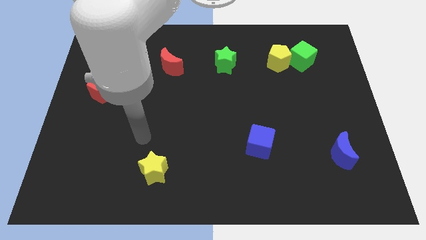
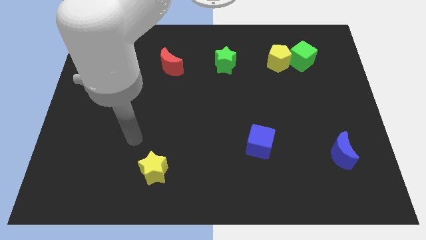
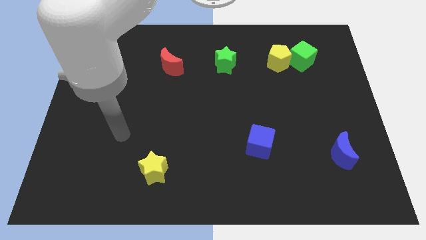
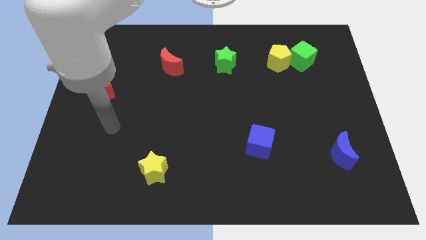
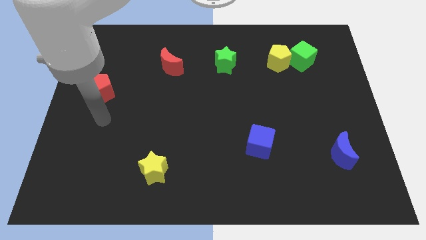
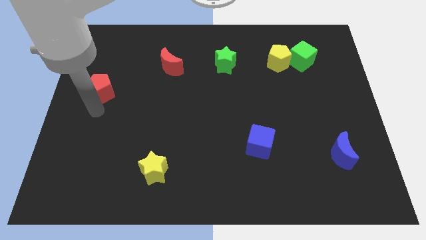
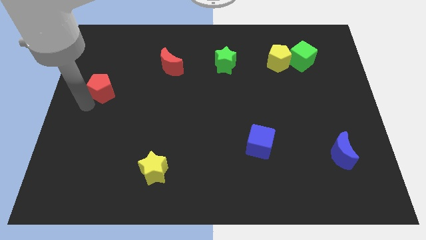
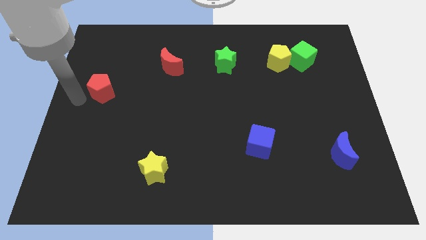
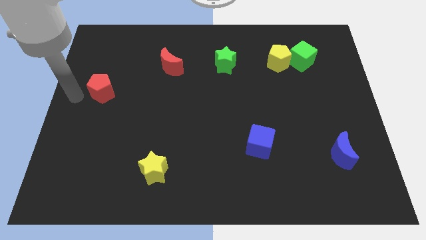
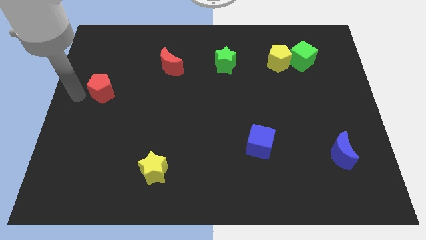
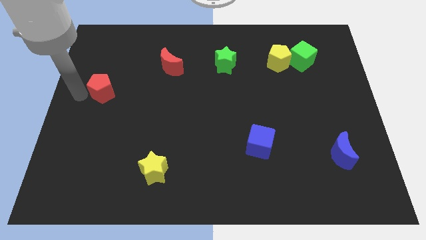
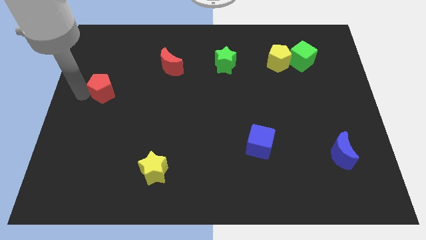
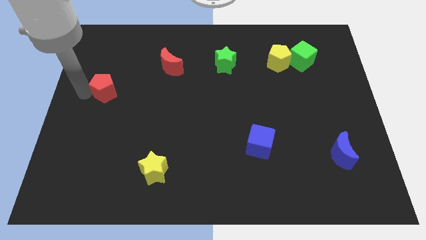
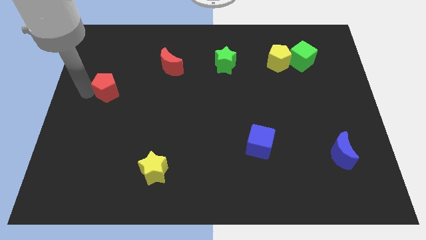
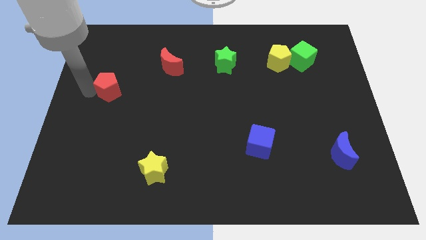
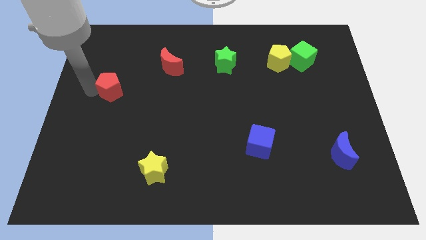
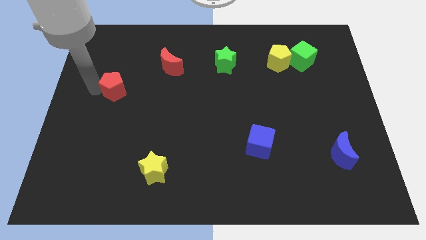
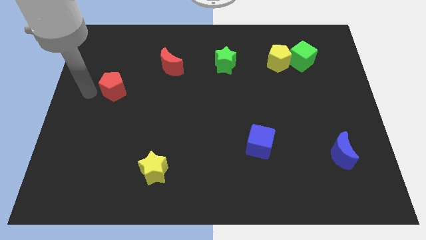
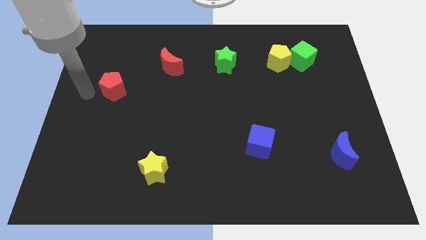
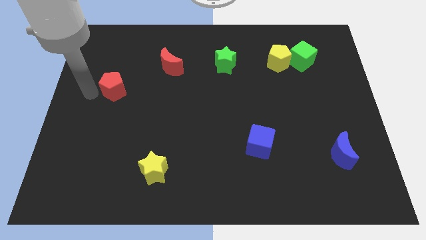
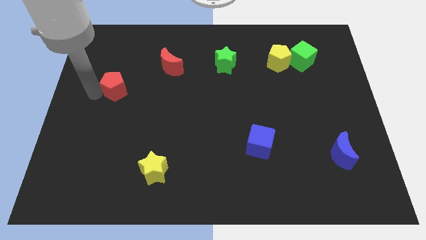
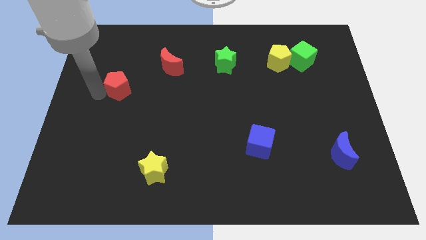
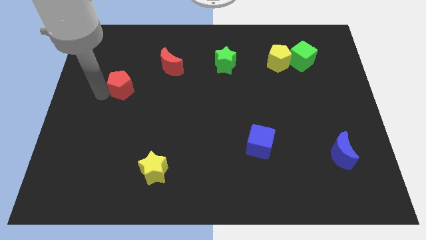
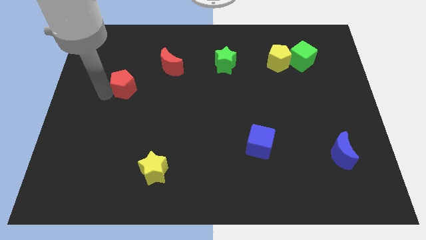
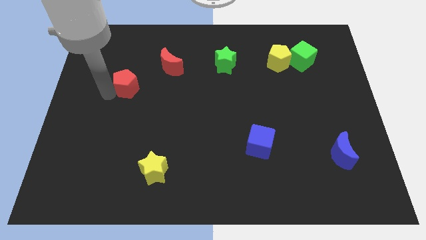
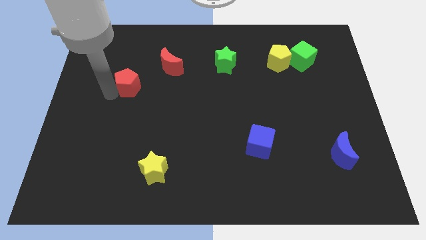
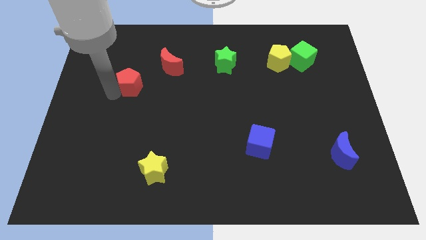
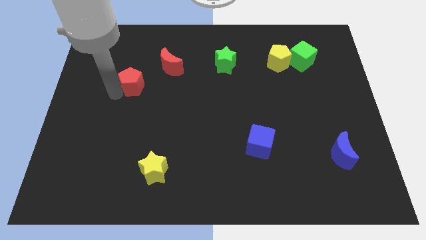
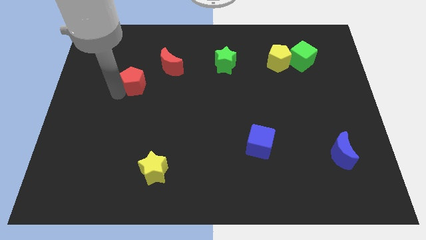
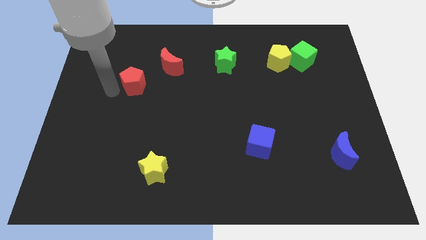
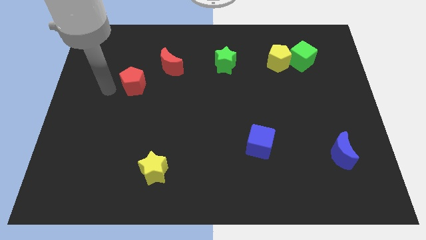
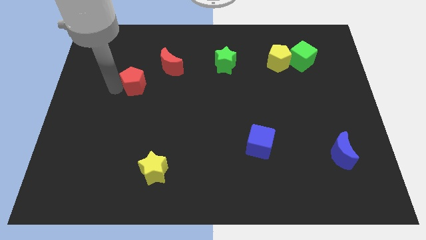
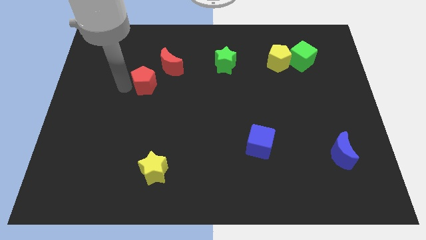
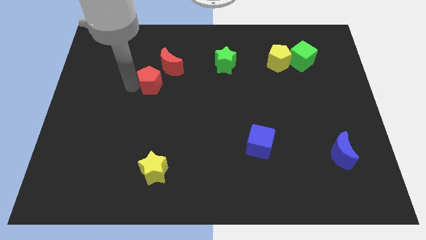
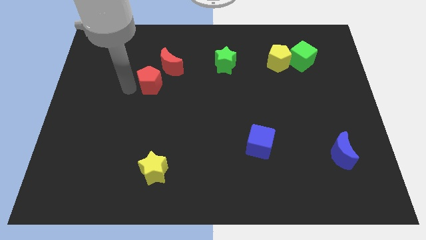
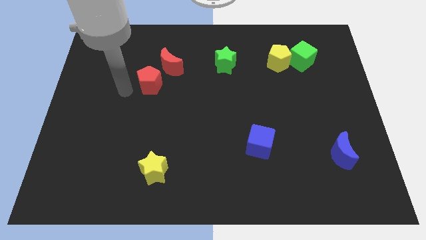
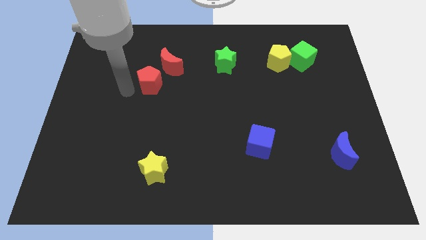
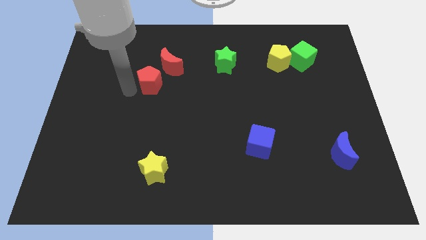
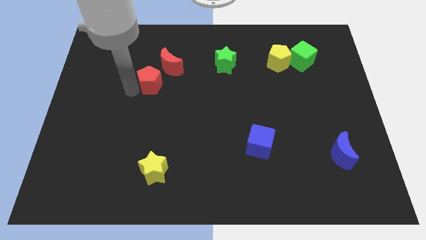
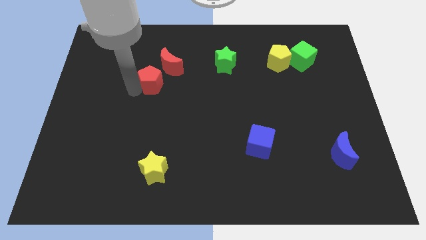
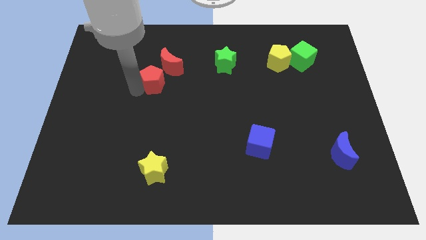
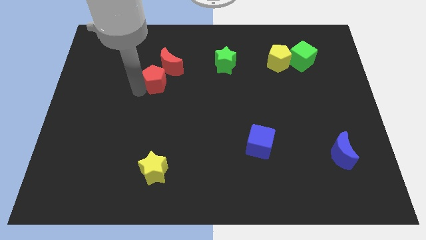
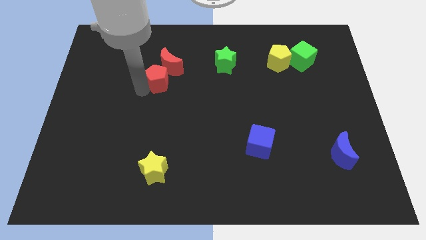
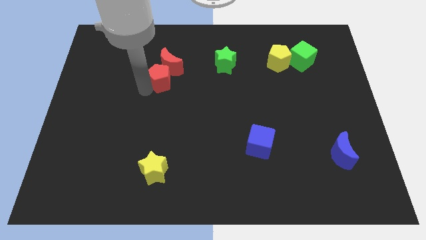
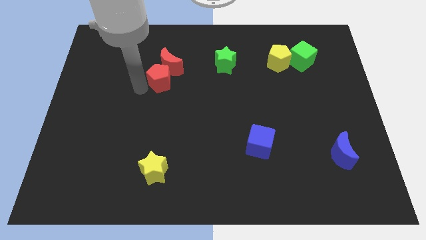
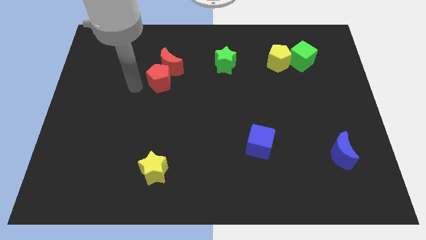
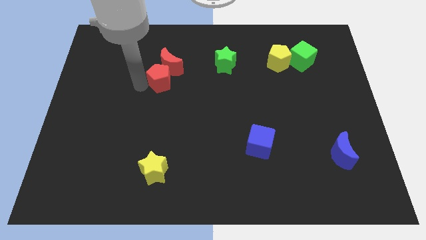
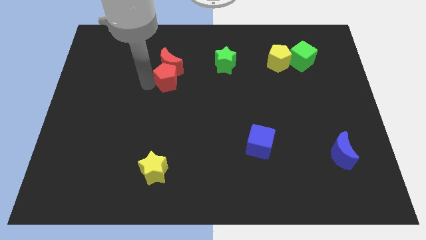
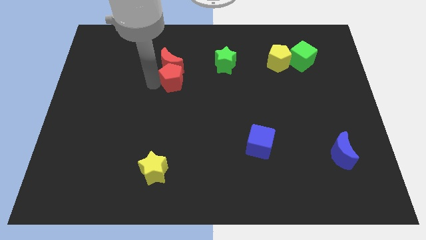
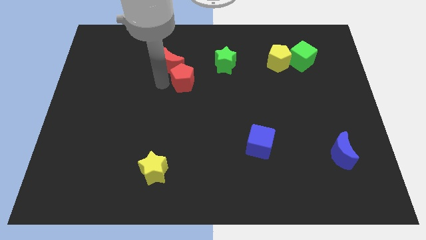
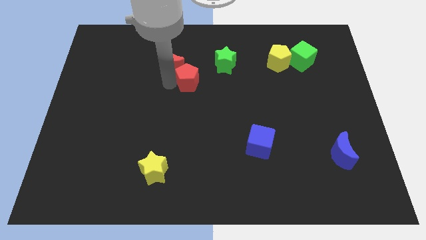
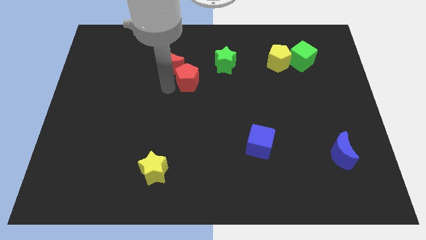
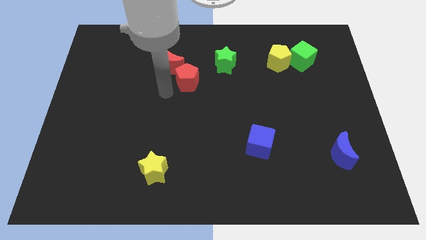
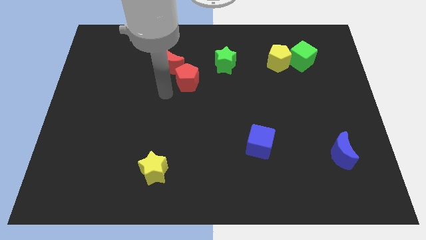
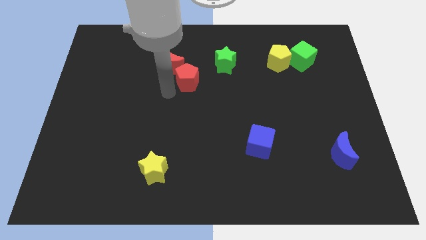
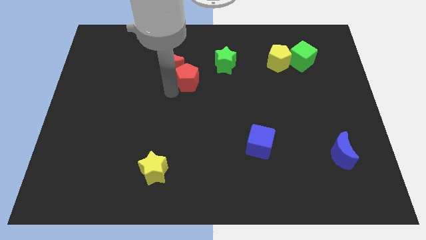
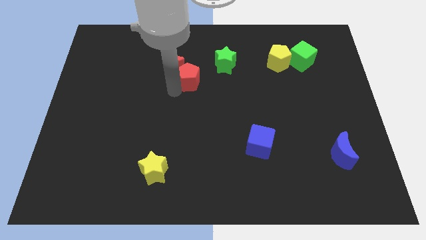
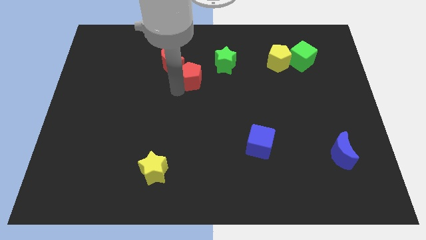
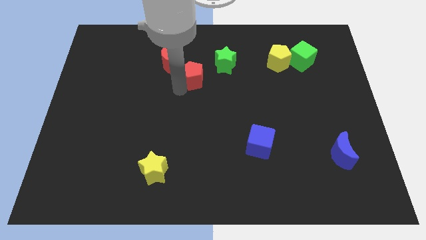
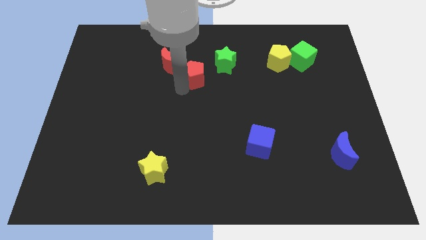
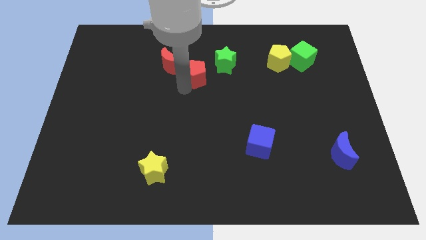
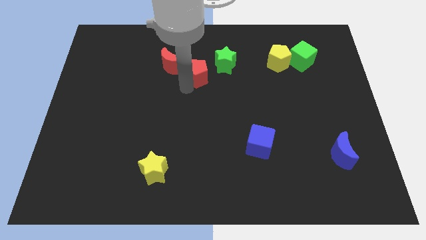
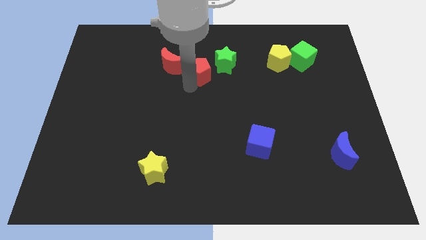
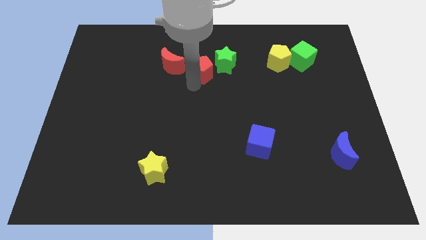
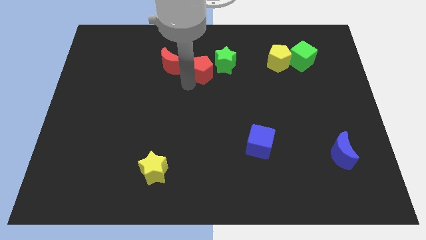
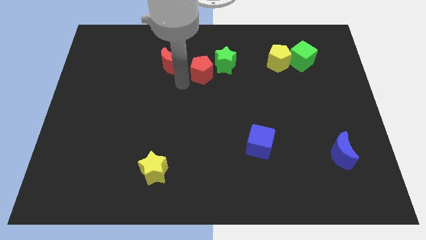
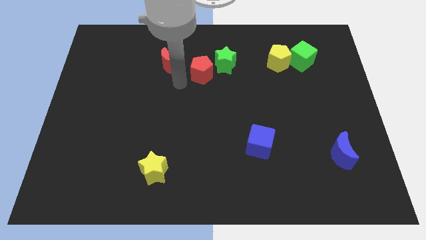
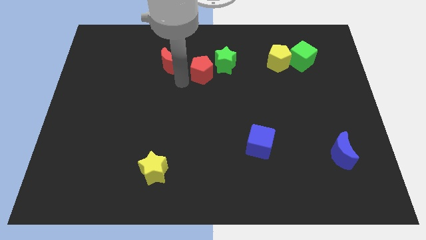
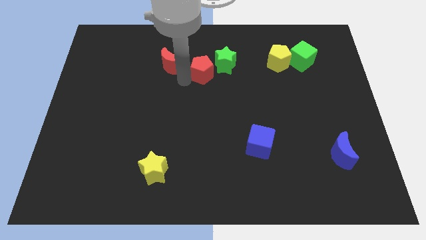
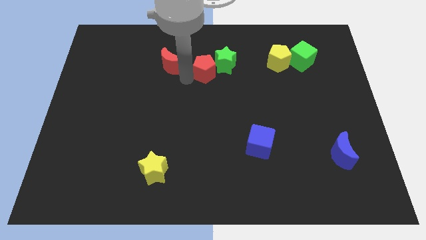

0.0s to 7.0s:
slide the red pentagon towards the green star

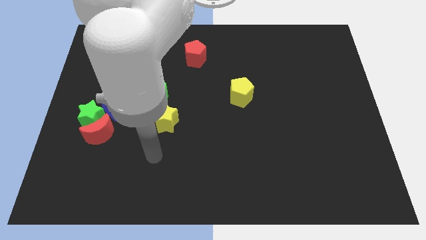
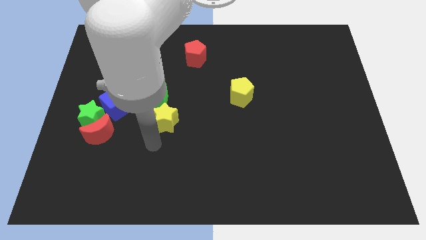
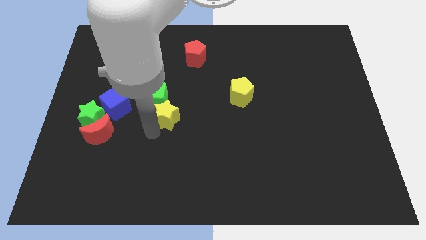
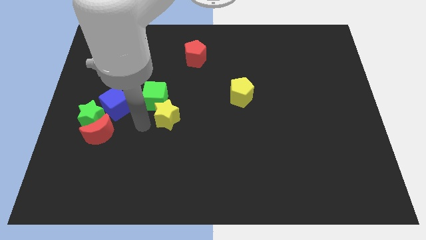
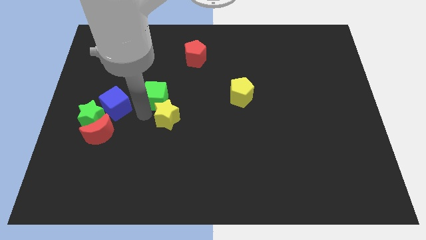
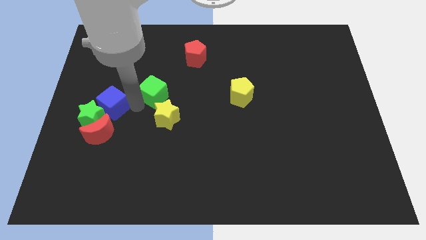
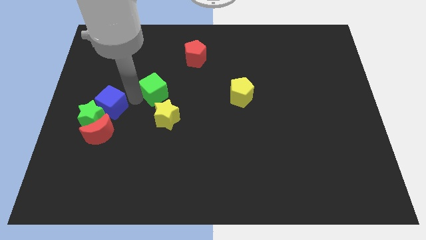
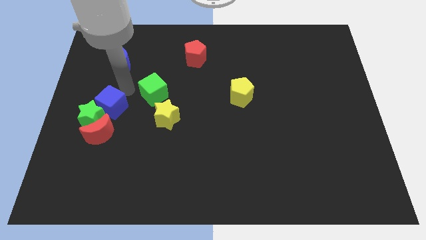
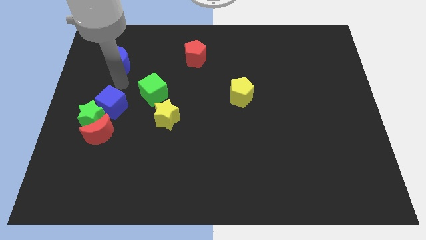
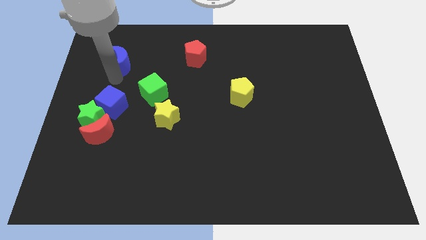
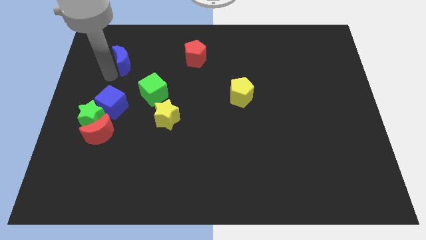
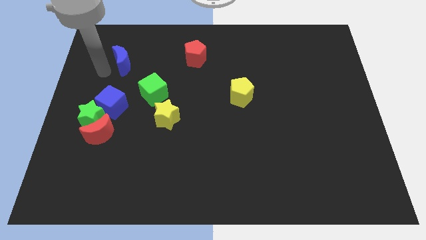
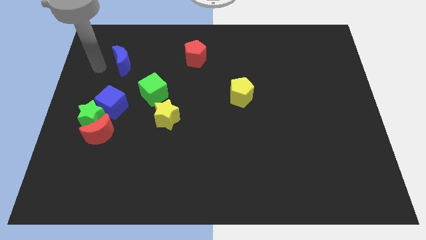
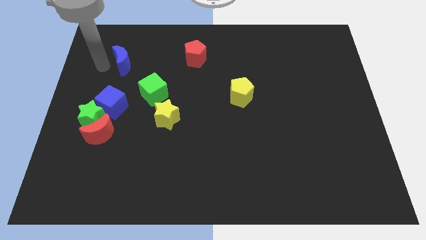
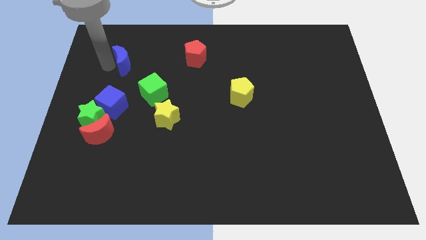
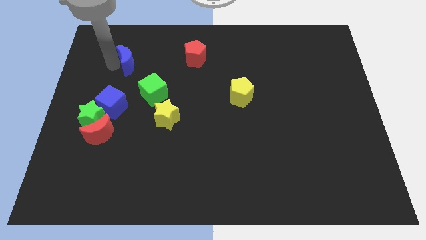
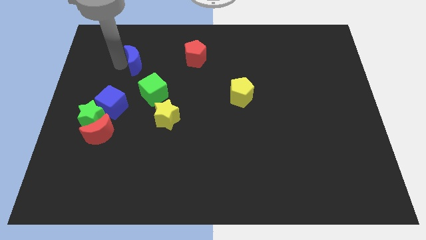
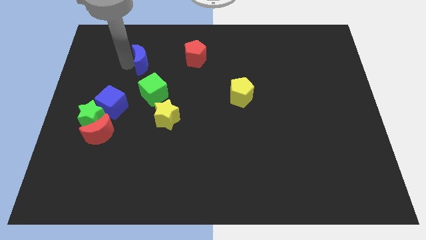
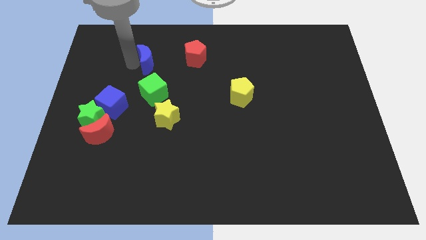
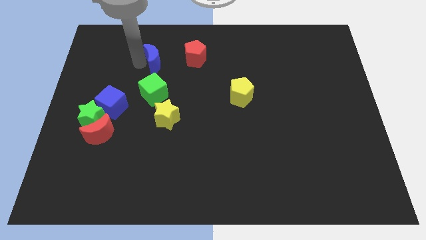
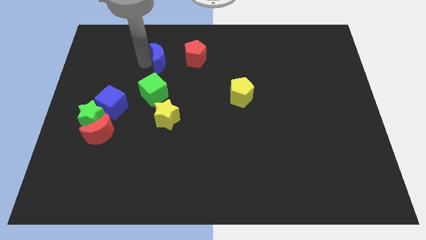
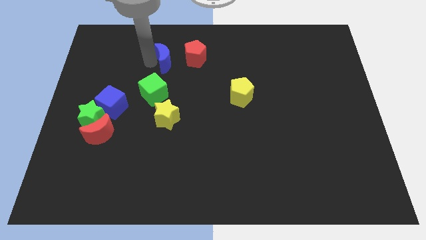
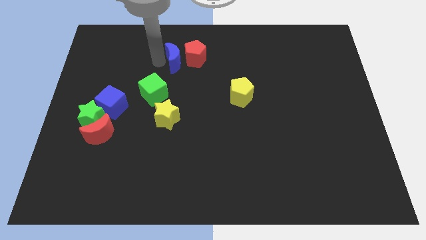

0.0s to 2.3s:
put the blue moon next to the red pentagon
